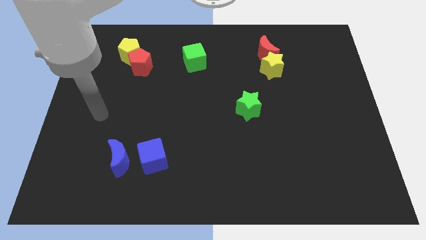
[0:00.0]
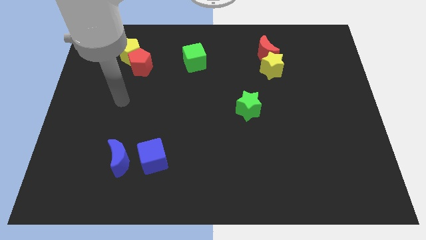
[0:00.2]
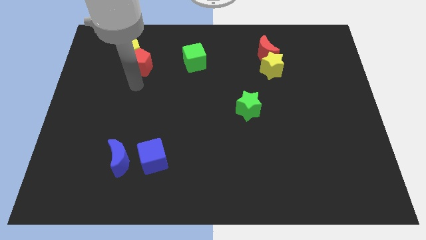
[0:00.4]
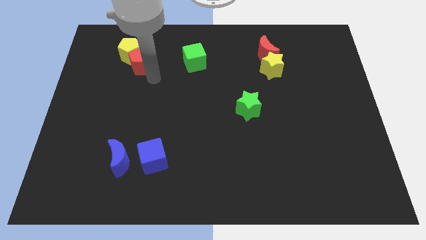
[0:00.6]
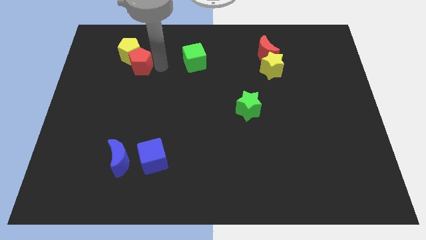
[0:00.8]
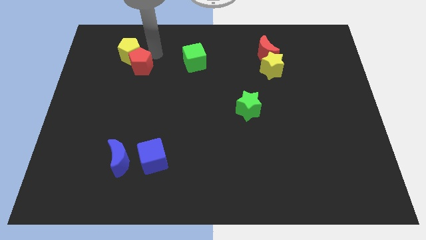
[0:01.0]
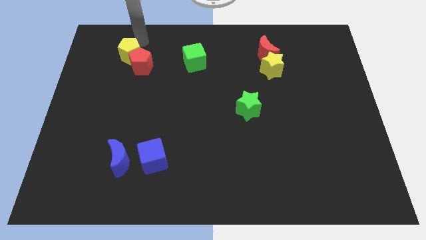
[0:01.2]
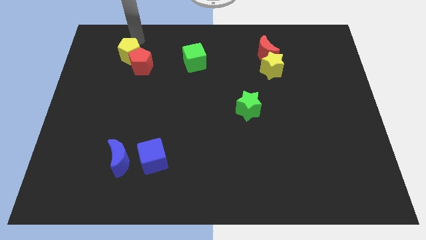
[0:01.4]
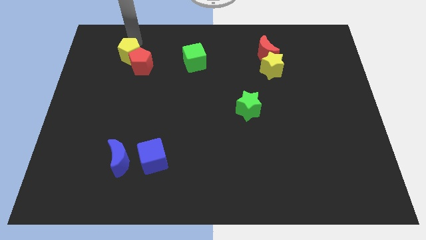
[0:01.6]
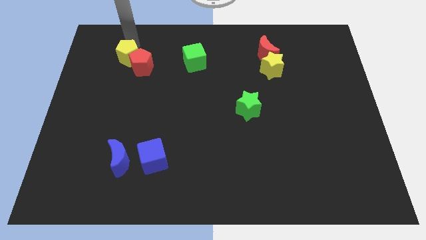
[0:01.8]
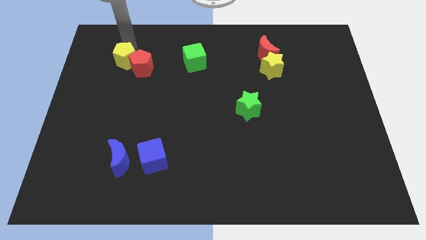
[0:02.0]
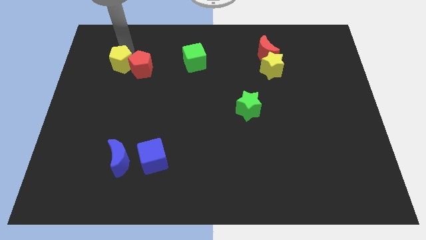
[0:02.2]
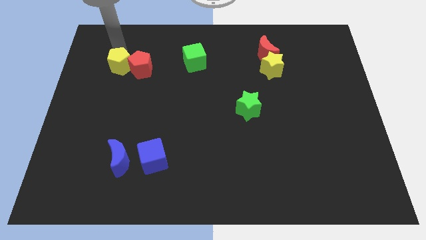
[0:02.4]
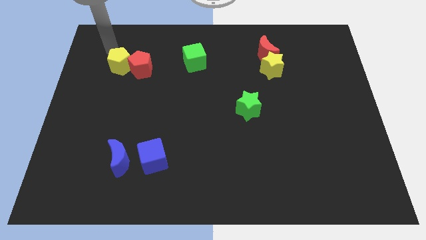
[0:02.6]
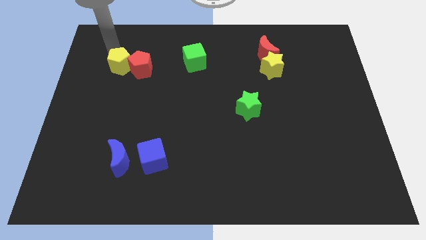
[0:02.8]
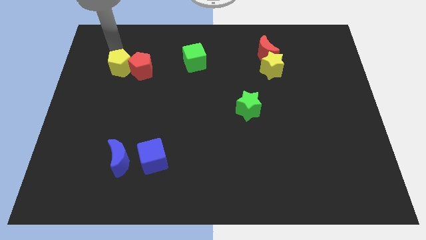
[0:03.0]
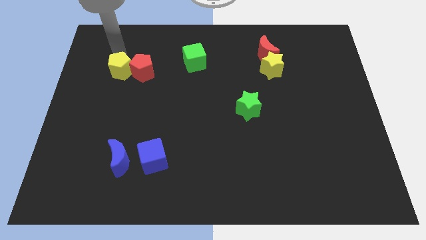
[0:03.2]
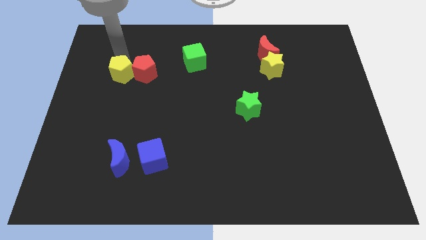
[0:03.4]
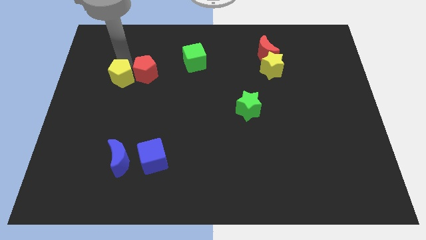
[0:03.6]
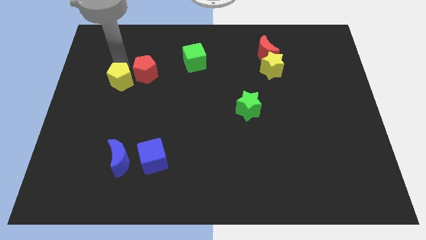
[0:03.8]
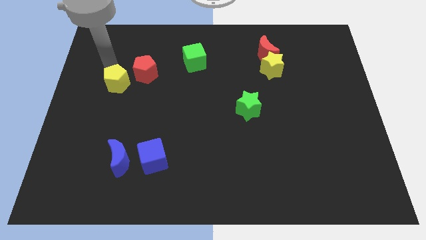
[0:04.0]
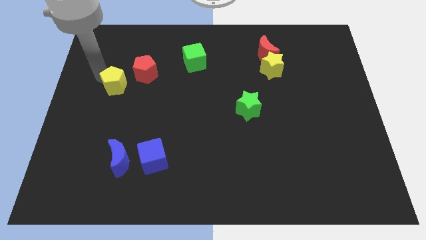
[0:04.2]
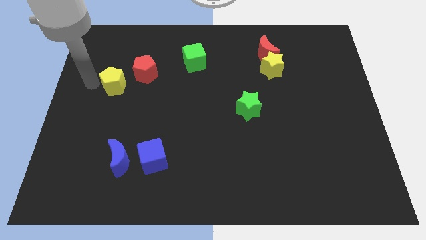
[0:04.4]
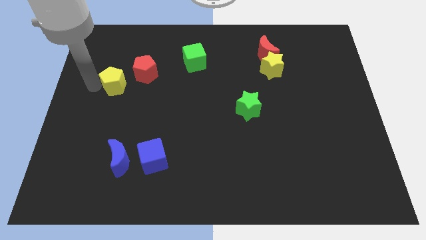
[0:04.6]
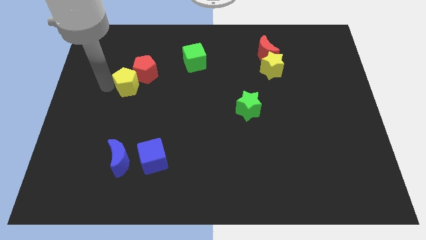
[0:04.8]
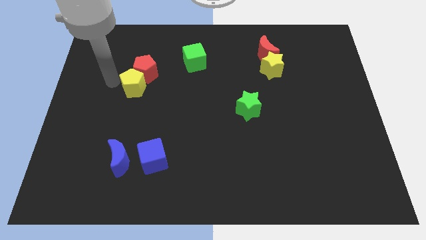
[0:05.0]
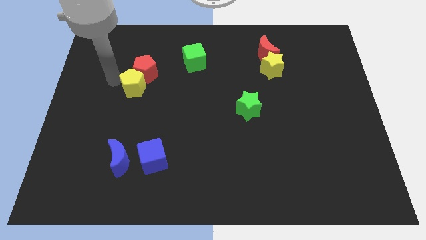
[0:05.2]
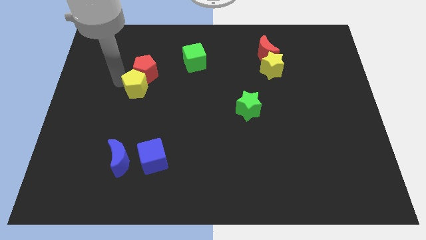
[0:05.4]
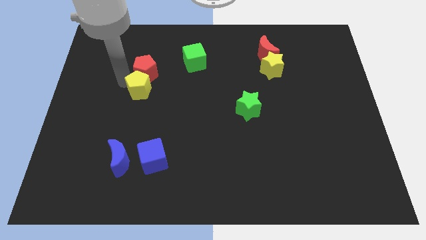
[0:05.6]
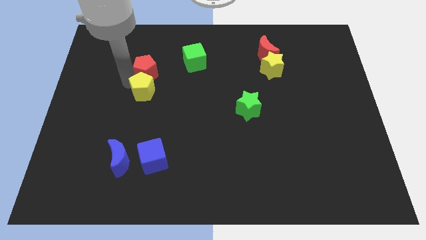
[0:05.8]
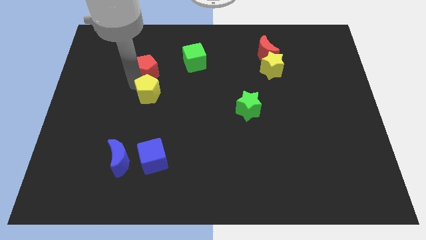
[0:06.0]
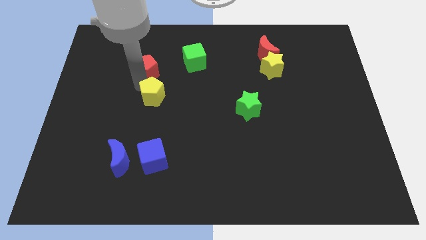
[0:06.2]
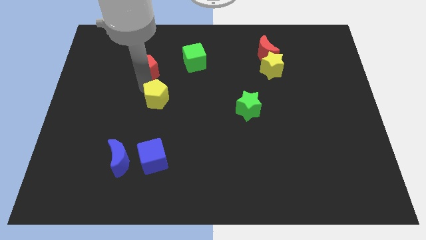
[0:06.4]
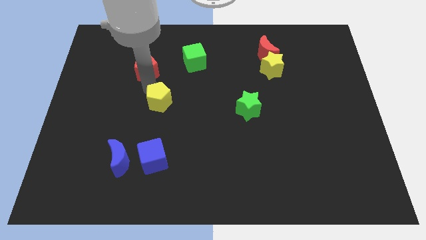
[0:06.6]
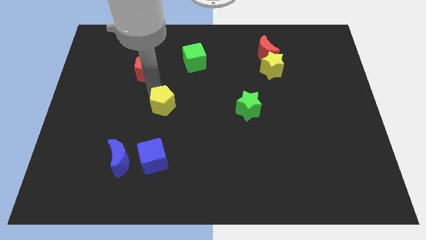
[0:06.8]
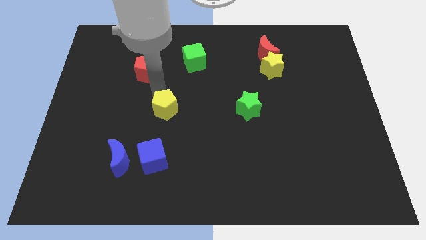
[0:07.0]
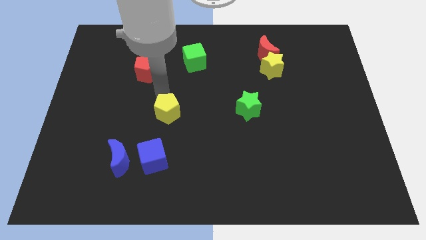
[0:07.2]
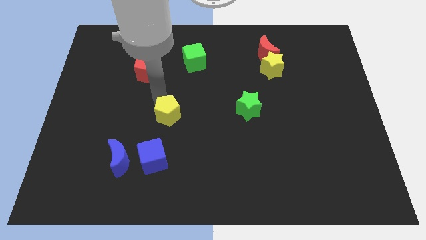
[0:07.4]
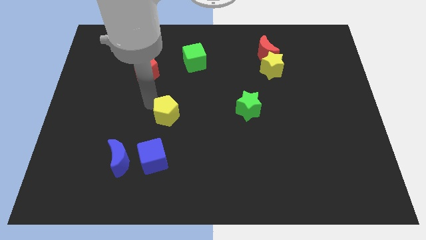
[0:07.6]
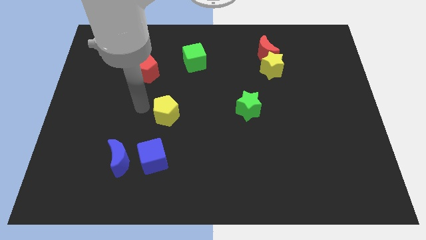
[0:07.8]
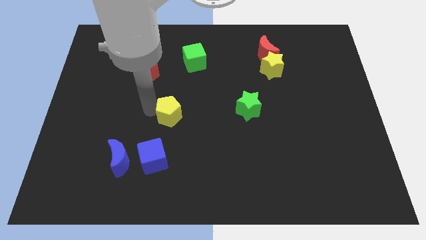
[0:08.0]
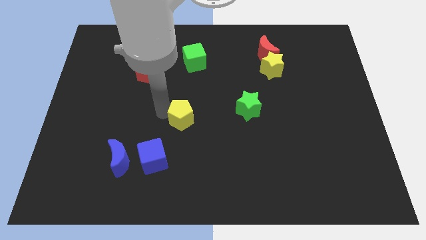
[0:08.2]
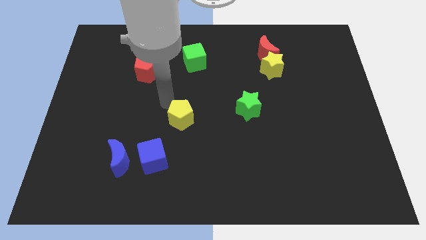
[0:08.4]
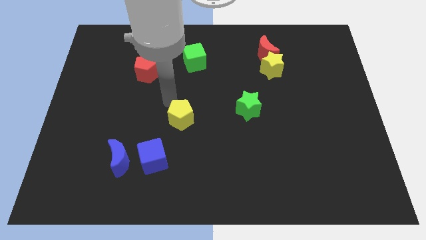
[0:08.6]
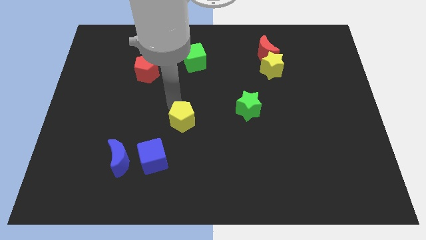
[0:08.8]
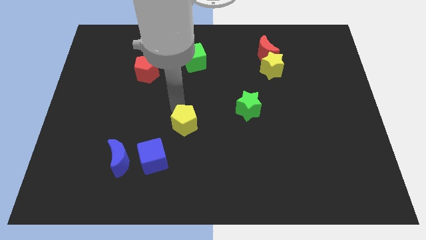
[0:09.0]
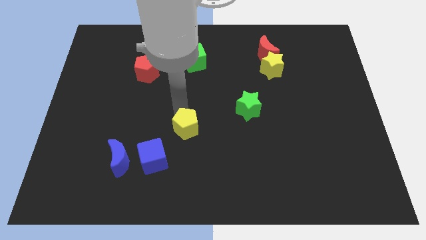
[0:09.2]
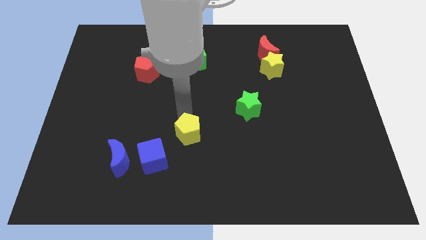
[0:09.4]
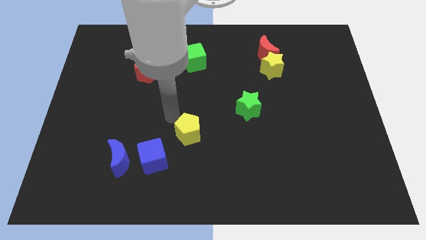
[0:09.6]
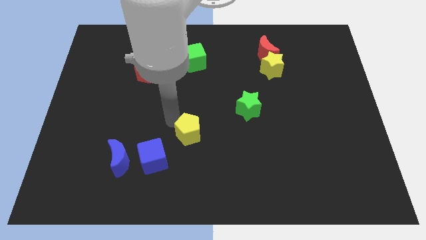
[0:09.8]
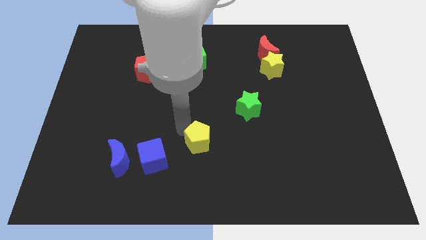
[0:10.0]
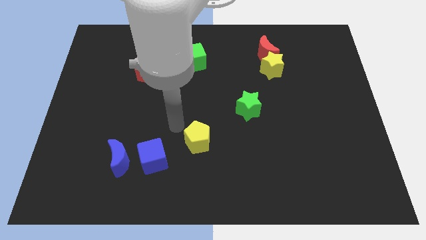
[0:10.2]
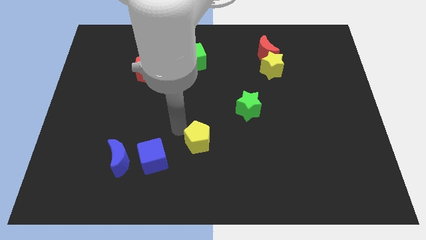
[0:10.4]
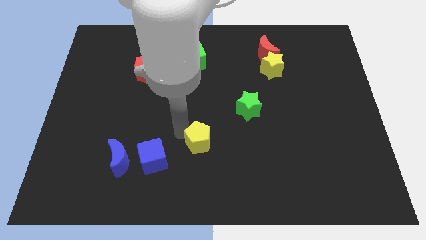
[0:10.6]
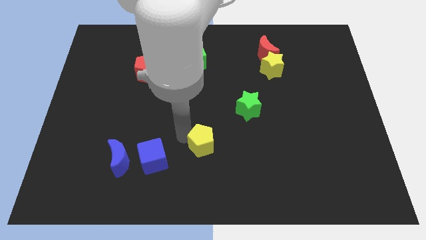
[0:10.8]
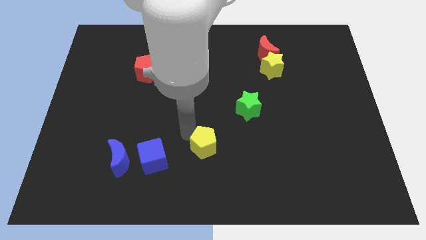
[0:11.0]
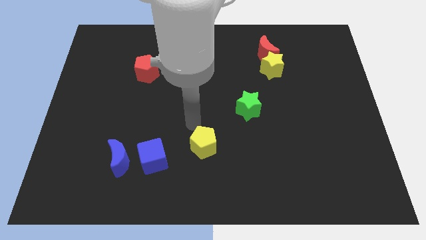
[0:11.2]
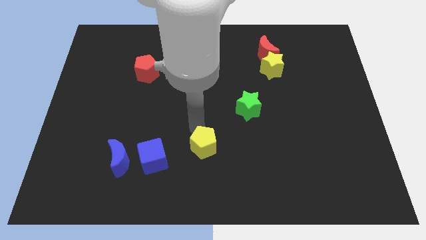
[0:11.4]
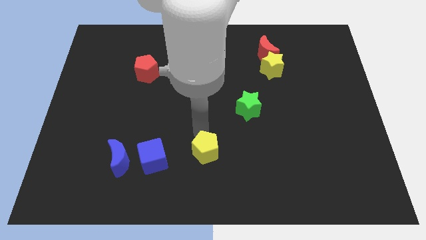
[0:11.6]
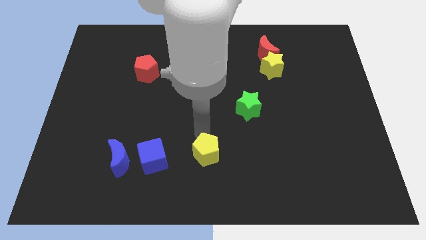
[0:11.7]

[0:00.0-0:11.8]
slide the yellow pentagon to the bottom
